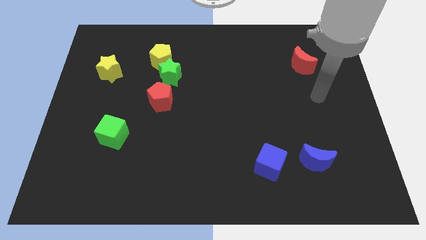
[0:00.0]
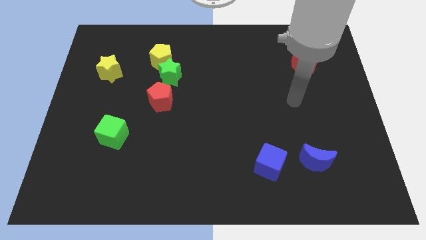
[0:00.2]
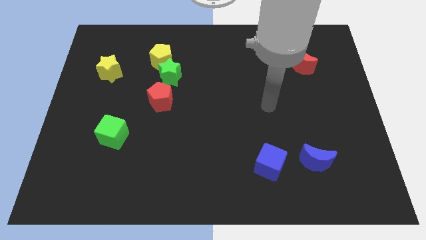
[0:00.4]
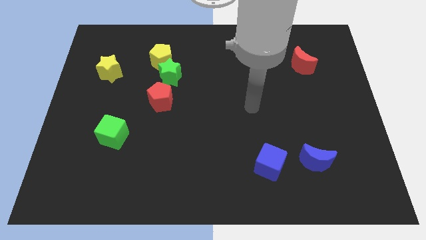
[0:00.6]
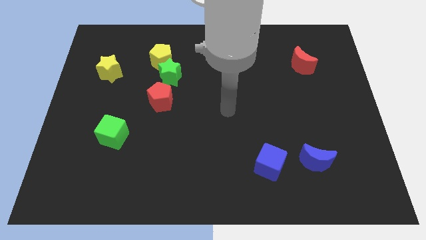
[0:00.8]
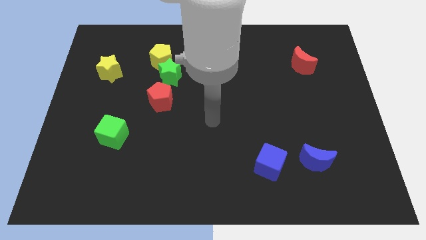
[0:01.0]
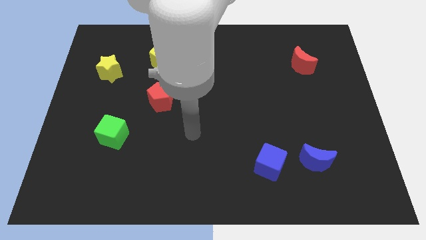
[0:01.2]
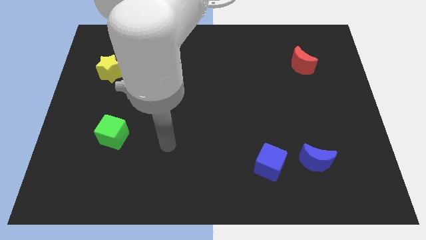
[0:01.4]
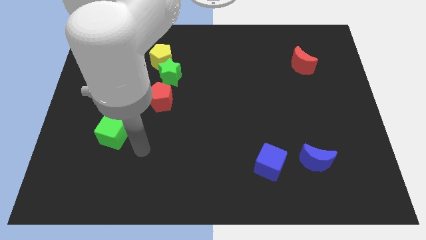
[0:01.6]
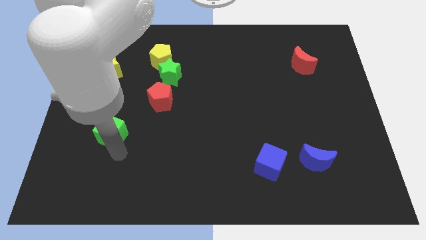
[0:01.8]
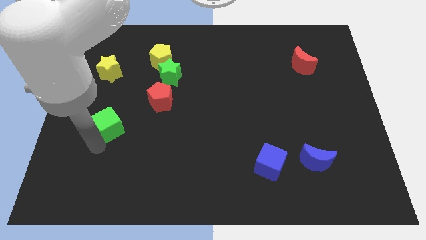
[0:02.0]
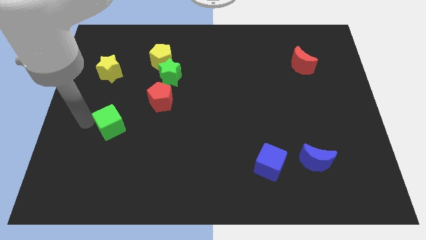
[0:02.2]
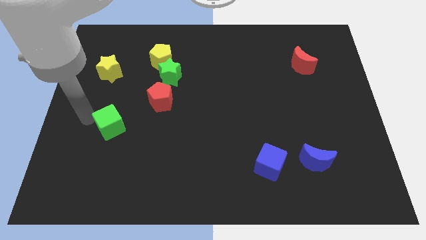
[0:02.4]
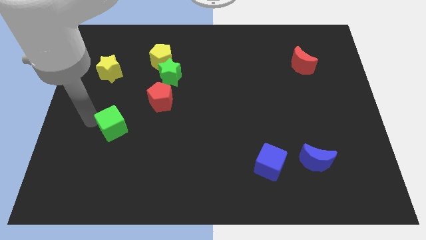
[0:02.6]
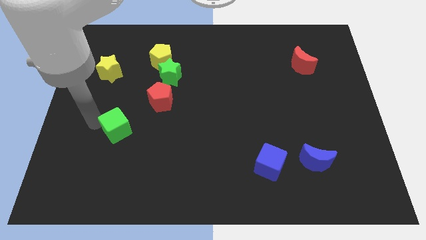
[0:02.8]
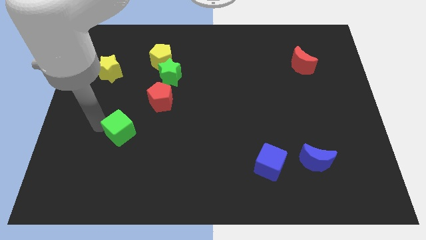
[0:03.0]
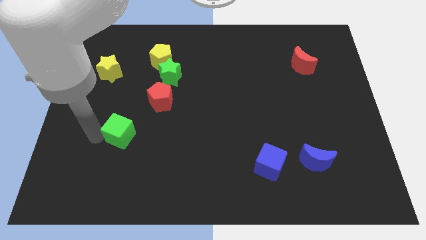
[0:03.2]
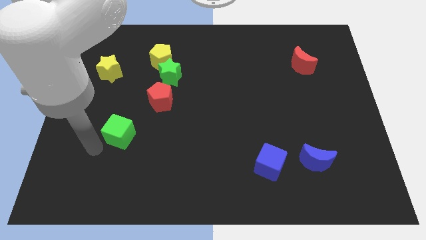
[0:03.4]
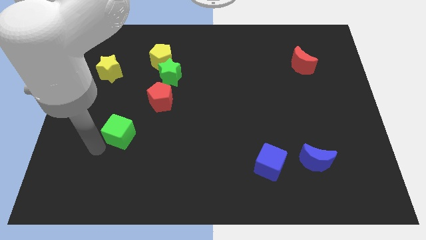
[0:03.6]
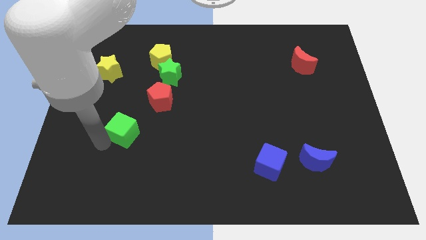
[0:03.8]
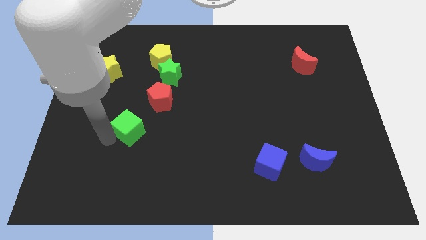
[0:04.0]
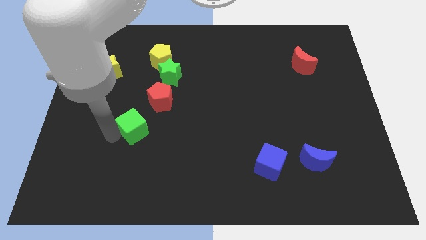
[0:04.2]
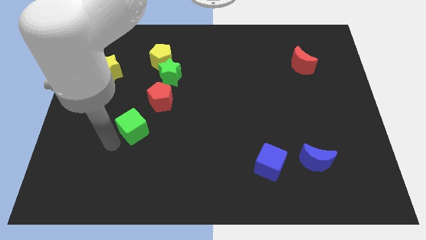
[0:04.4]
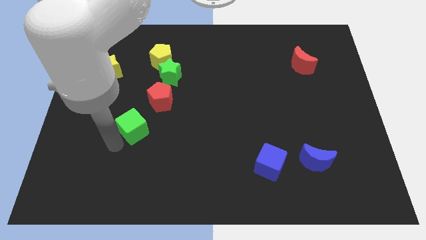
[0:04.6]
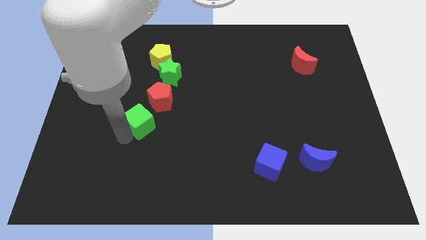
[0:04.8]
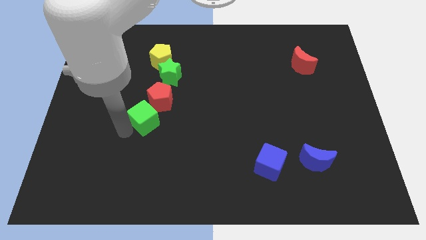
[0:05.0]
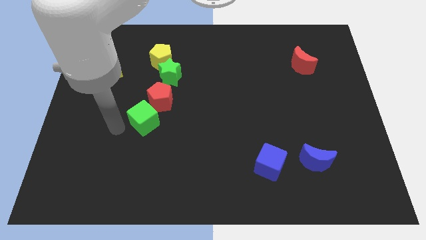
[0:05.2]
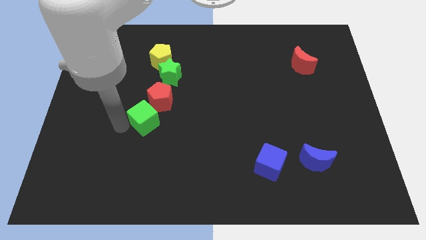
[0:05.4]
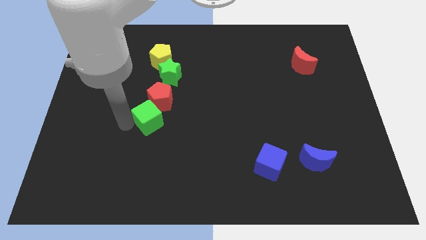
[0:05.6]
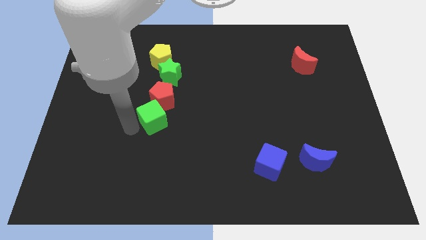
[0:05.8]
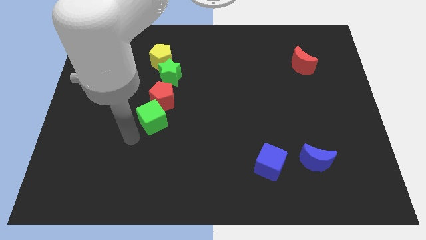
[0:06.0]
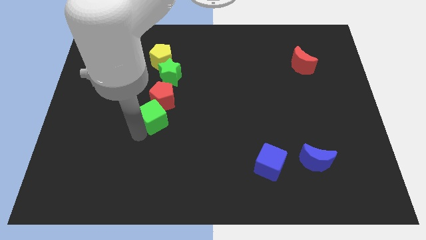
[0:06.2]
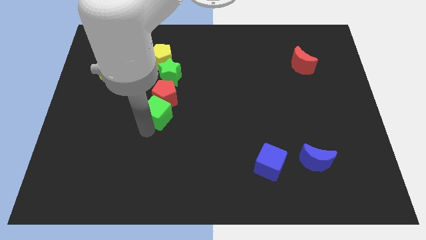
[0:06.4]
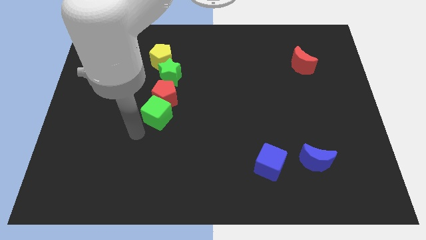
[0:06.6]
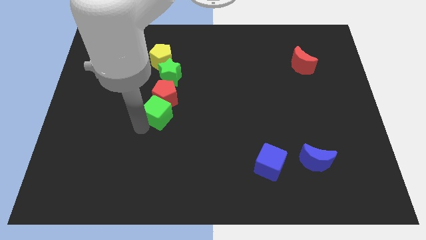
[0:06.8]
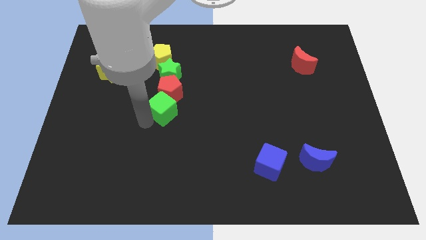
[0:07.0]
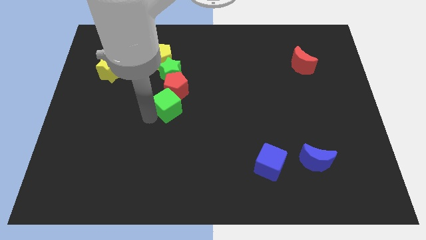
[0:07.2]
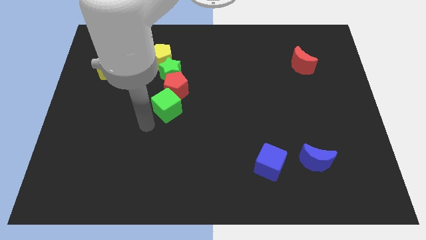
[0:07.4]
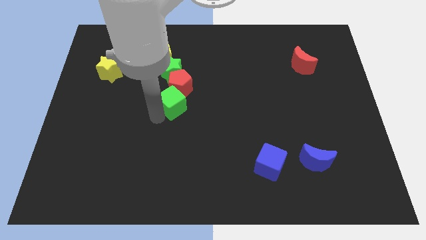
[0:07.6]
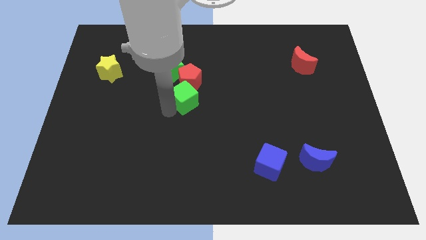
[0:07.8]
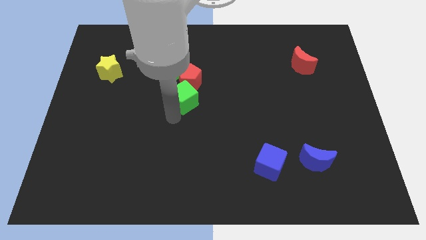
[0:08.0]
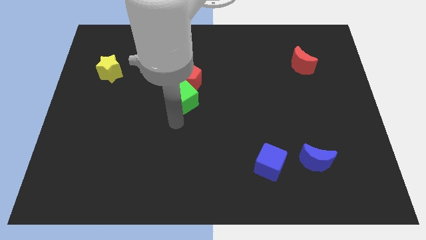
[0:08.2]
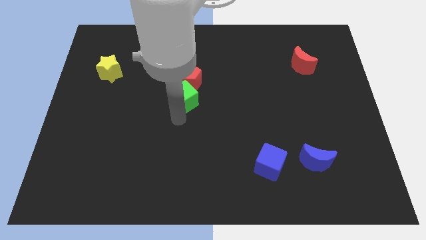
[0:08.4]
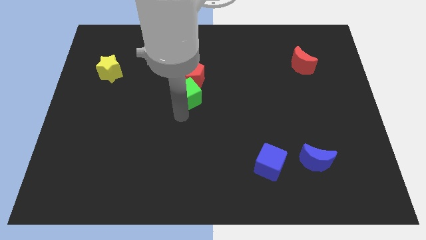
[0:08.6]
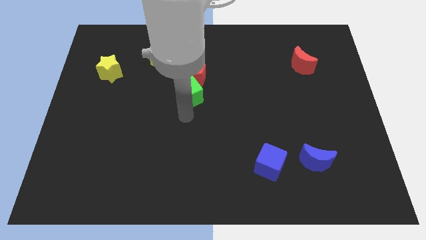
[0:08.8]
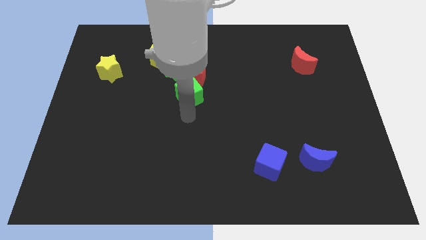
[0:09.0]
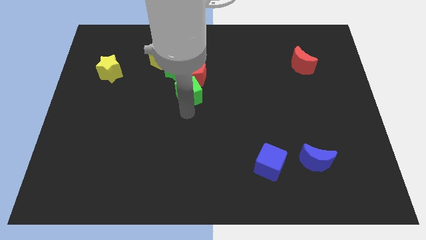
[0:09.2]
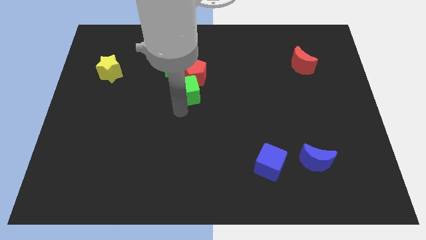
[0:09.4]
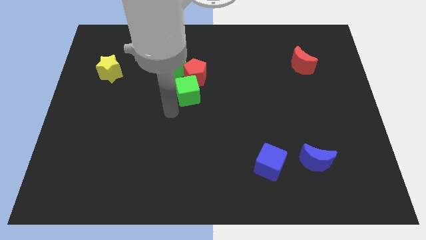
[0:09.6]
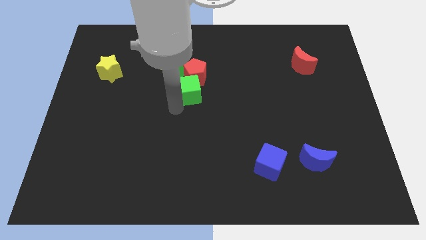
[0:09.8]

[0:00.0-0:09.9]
slide the green cube up and to the right diagonally

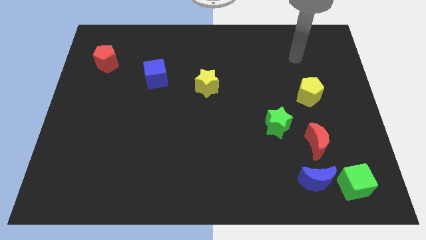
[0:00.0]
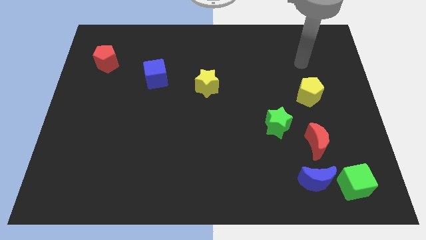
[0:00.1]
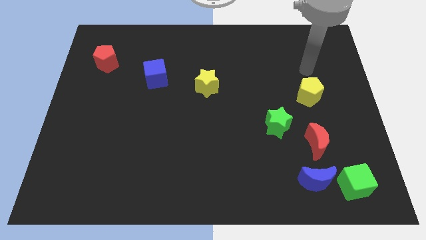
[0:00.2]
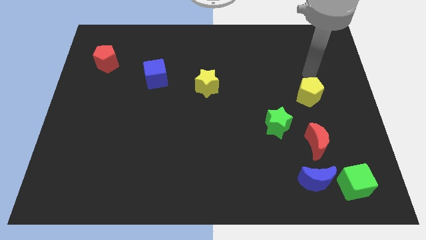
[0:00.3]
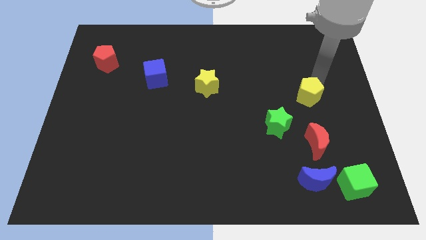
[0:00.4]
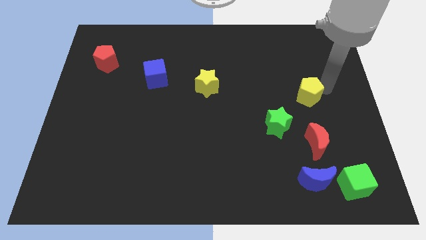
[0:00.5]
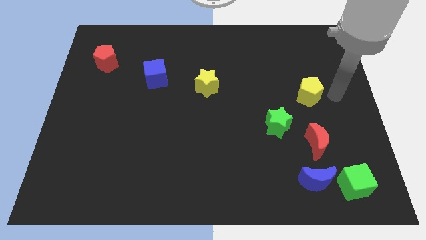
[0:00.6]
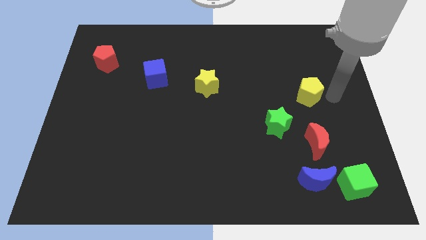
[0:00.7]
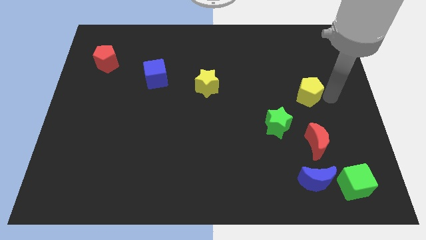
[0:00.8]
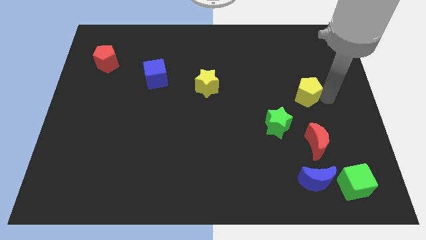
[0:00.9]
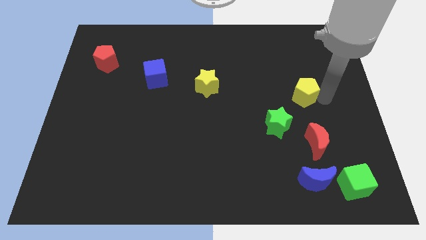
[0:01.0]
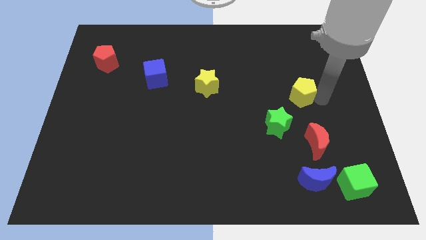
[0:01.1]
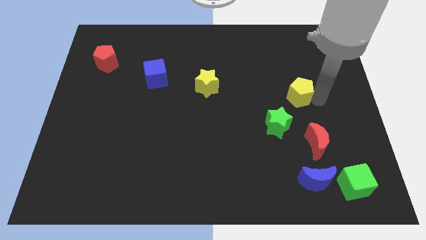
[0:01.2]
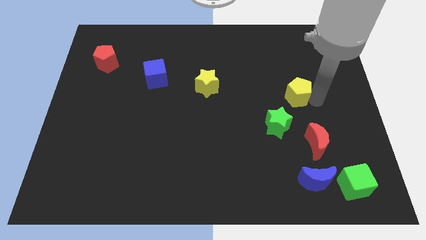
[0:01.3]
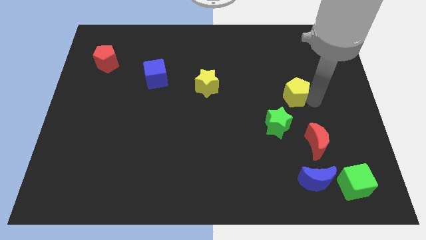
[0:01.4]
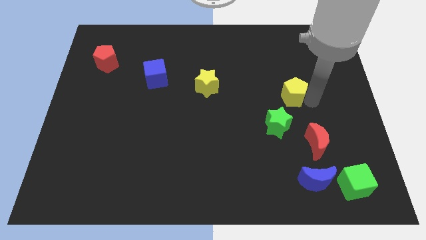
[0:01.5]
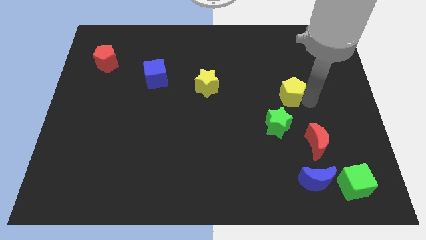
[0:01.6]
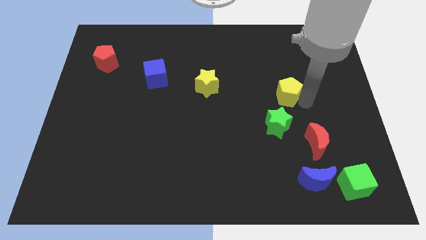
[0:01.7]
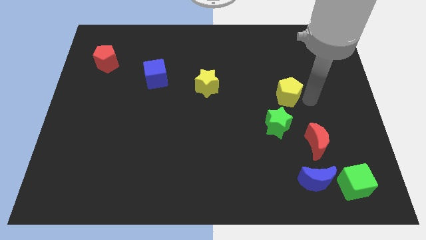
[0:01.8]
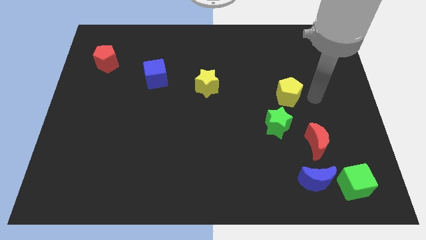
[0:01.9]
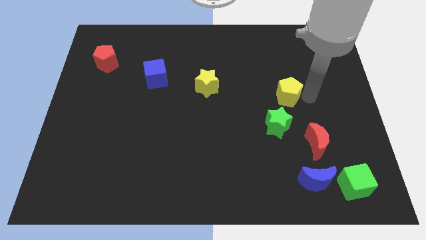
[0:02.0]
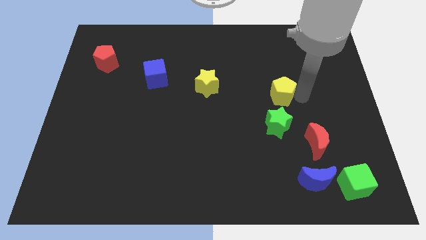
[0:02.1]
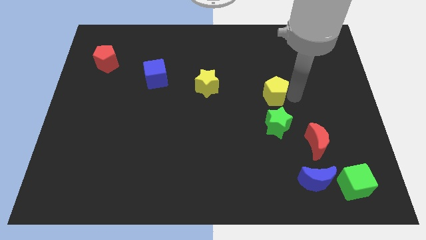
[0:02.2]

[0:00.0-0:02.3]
slightly push the yellow pentagon to the left

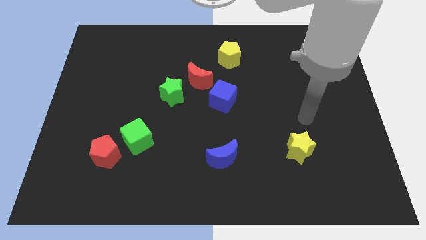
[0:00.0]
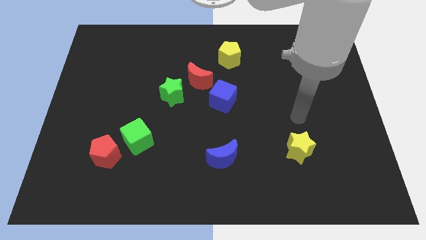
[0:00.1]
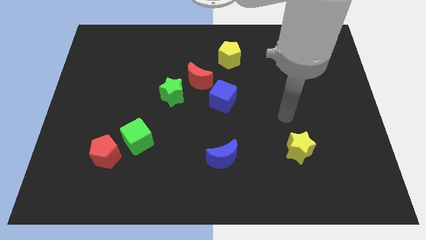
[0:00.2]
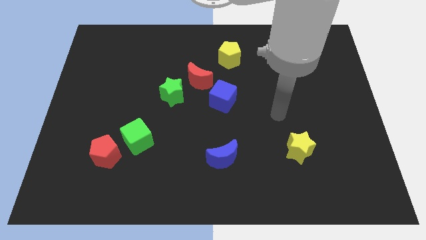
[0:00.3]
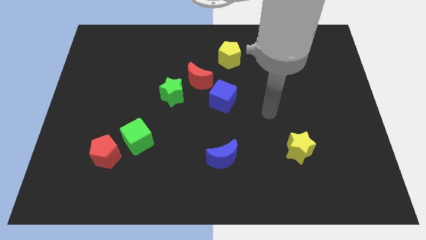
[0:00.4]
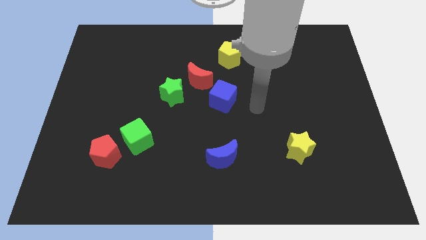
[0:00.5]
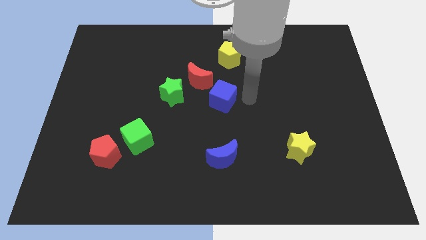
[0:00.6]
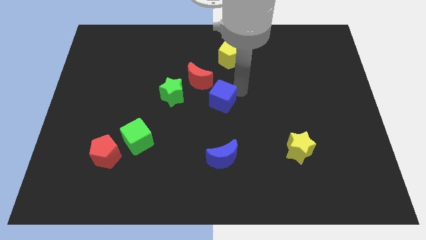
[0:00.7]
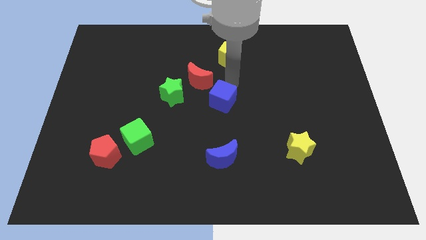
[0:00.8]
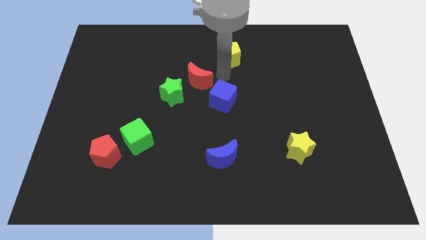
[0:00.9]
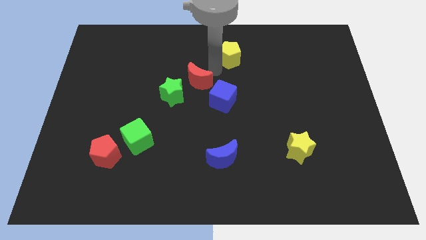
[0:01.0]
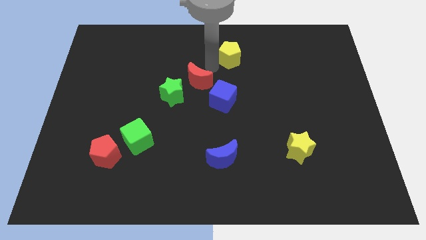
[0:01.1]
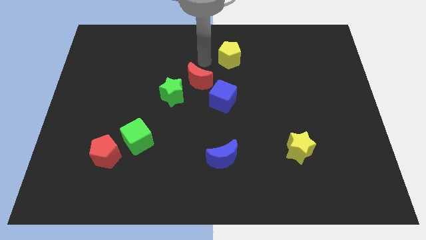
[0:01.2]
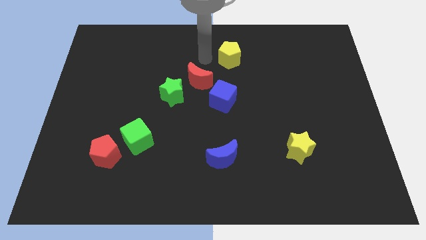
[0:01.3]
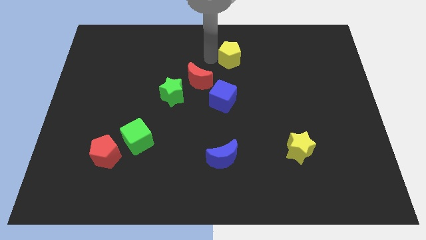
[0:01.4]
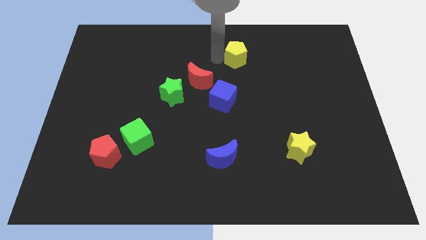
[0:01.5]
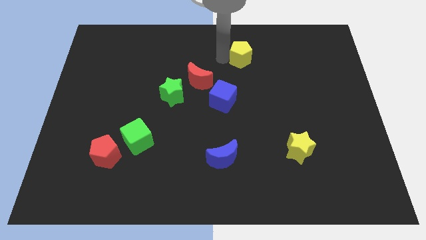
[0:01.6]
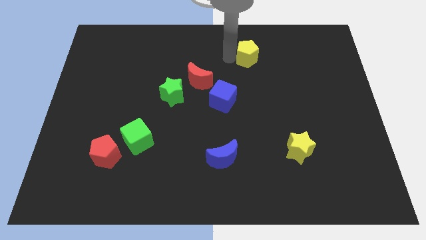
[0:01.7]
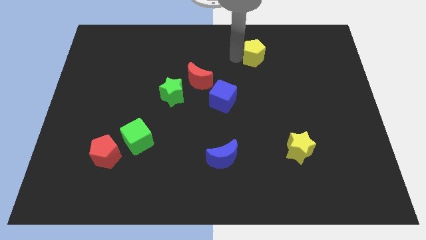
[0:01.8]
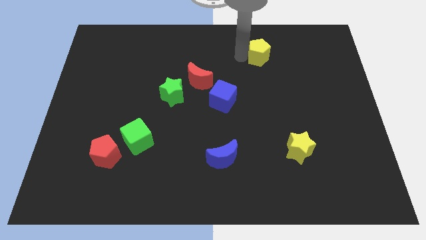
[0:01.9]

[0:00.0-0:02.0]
slightly move the yellow pentagon right
